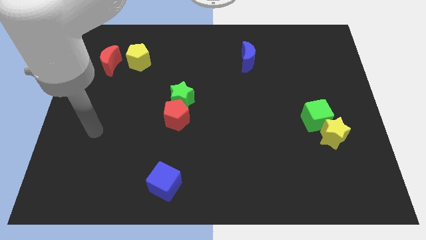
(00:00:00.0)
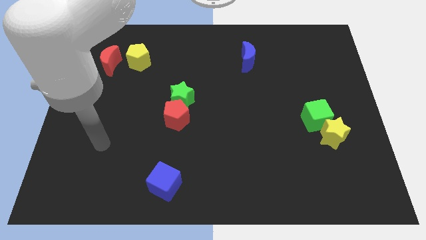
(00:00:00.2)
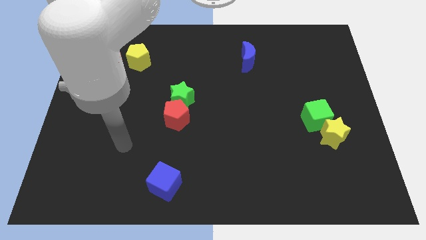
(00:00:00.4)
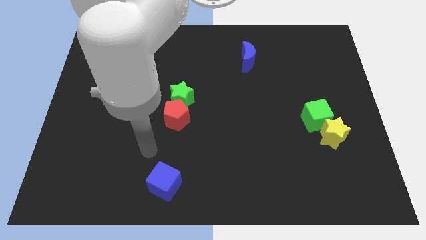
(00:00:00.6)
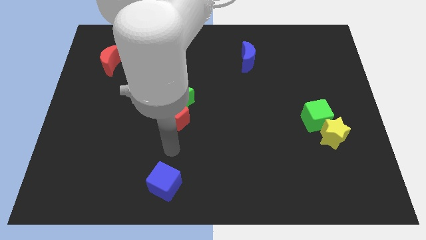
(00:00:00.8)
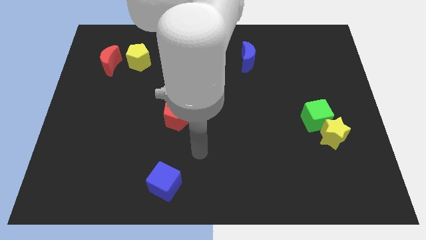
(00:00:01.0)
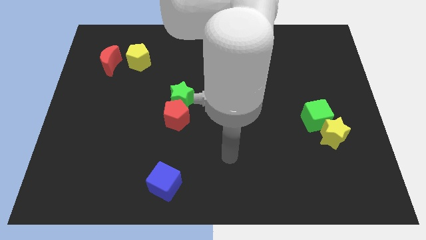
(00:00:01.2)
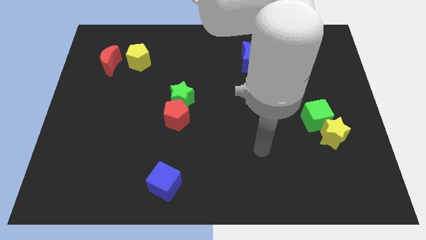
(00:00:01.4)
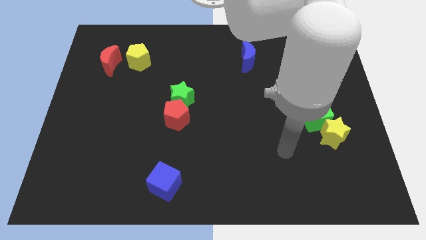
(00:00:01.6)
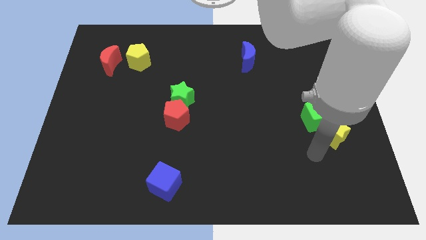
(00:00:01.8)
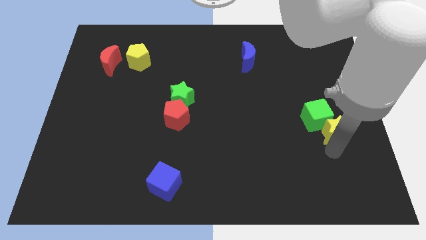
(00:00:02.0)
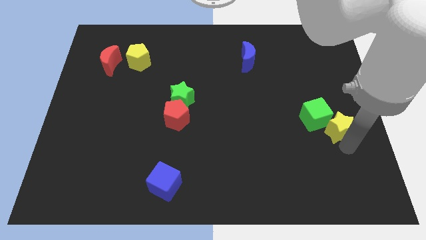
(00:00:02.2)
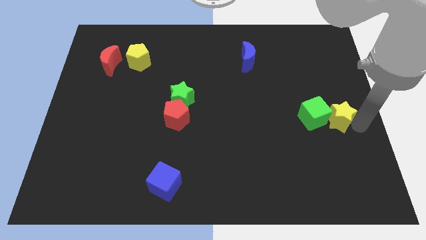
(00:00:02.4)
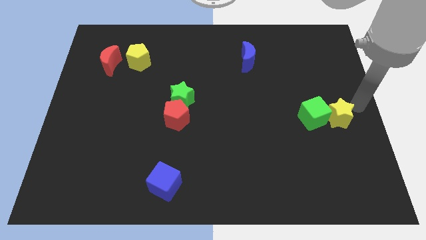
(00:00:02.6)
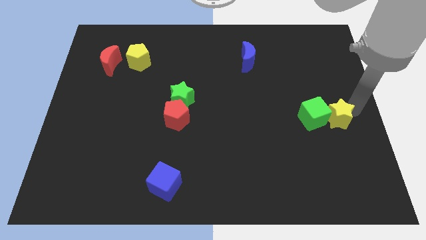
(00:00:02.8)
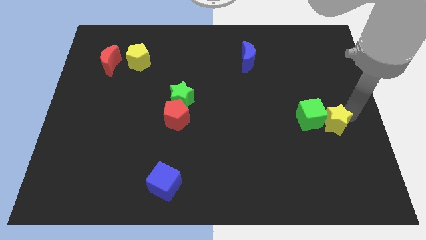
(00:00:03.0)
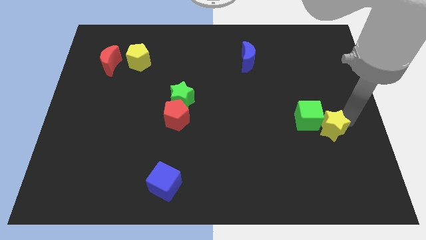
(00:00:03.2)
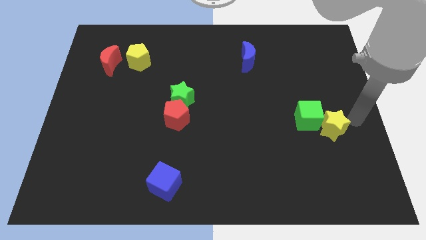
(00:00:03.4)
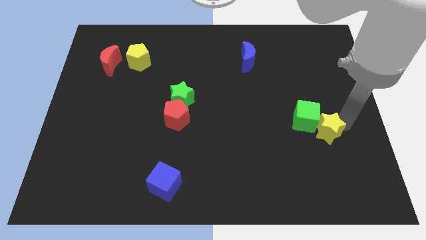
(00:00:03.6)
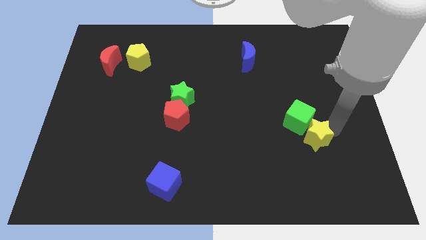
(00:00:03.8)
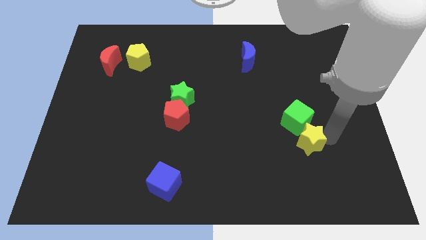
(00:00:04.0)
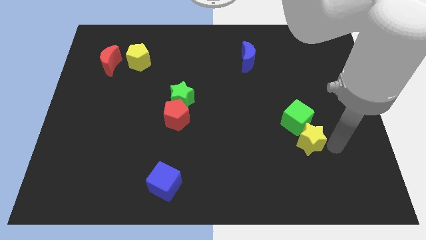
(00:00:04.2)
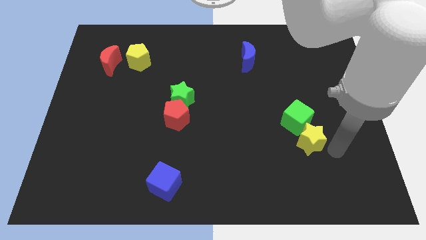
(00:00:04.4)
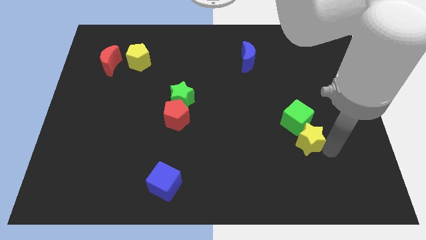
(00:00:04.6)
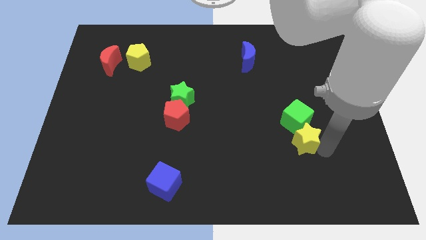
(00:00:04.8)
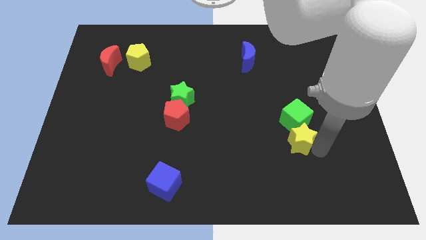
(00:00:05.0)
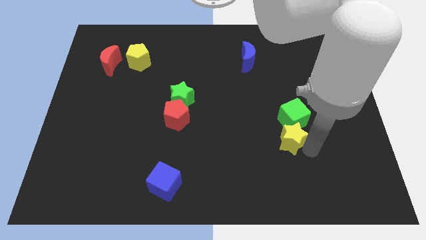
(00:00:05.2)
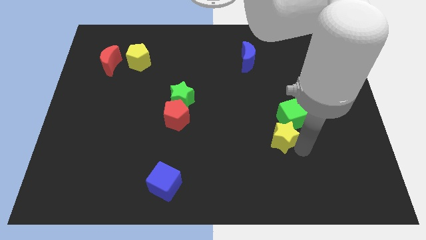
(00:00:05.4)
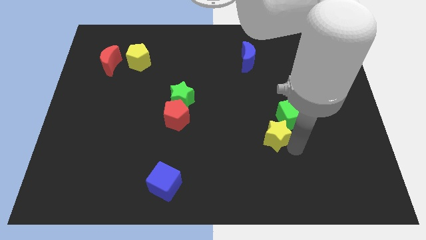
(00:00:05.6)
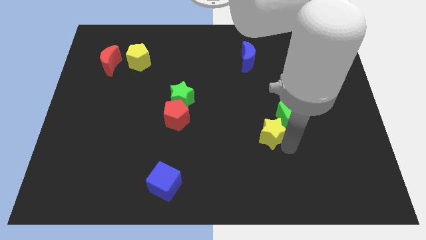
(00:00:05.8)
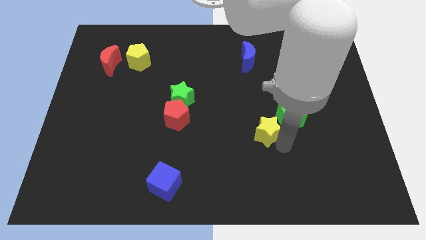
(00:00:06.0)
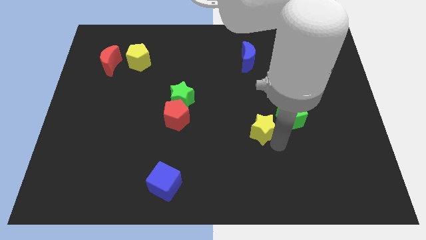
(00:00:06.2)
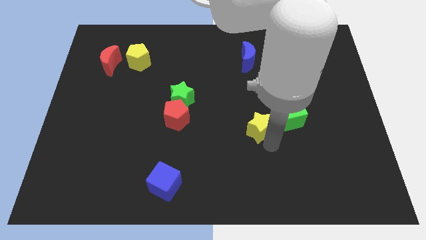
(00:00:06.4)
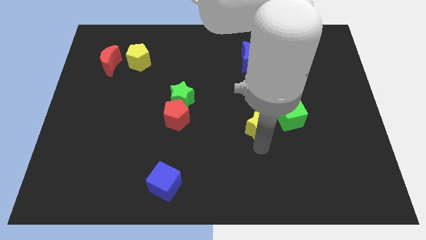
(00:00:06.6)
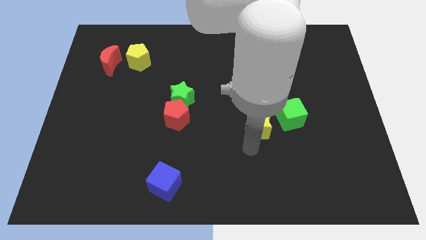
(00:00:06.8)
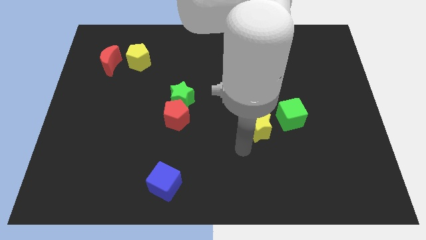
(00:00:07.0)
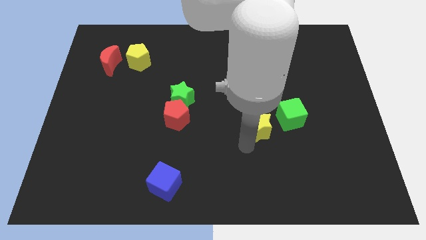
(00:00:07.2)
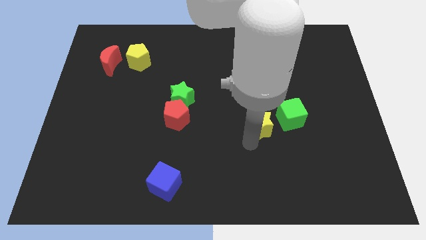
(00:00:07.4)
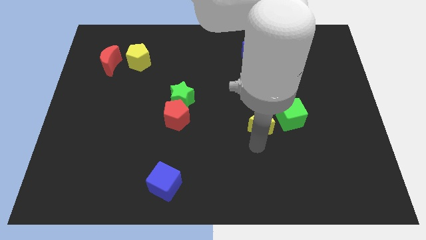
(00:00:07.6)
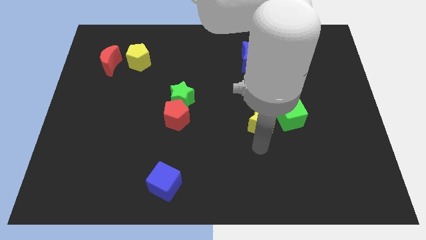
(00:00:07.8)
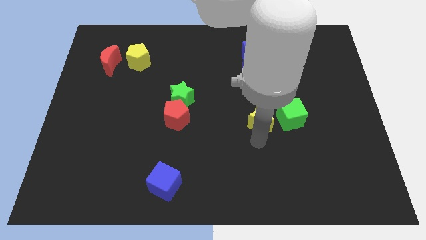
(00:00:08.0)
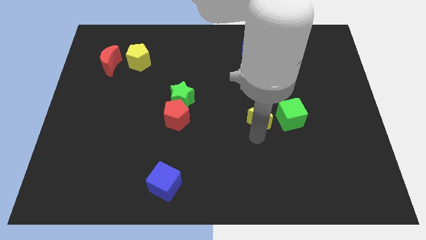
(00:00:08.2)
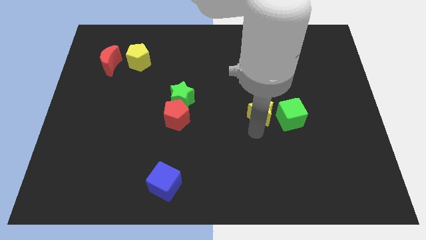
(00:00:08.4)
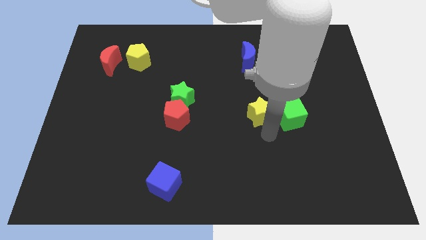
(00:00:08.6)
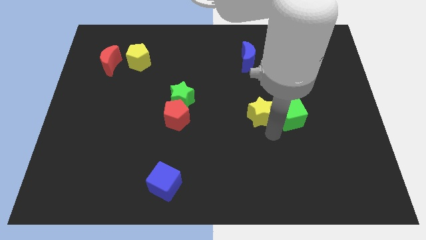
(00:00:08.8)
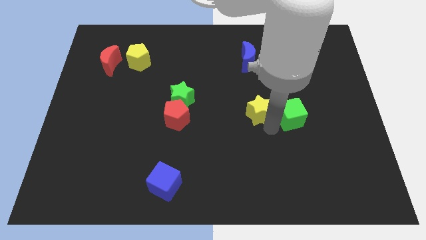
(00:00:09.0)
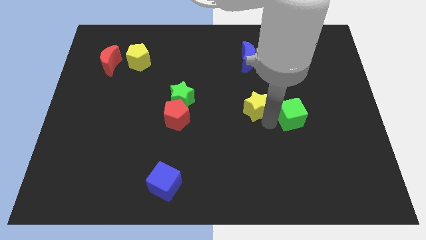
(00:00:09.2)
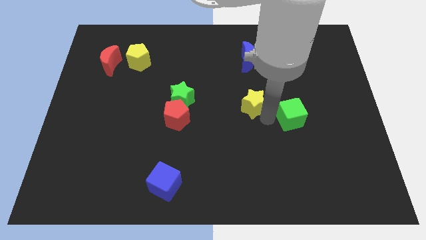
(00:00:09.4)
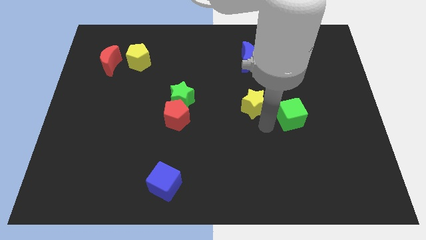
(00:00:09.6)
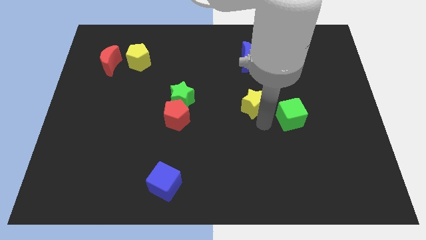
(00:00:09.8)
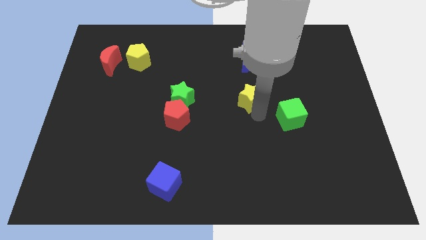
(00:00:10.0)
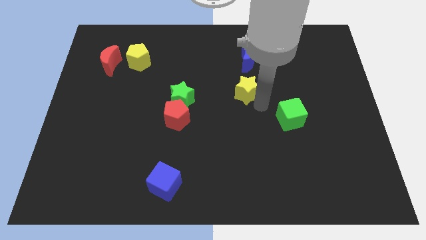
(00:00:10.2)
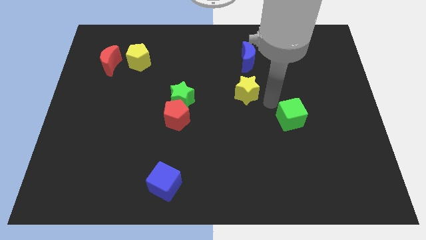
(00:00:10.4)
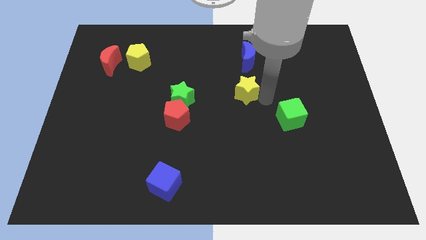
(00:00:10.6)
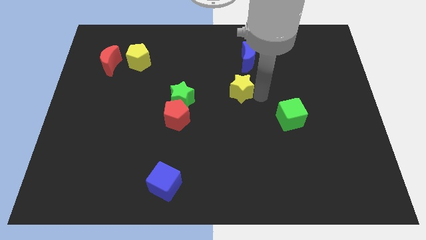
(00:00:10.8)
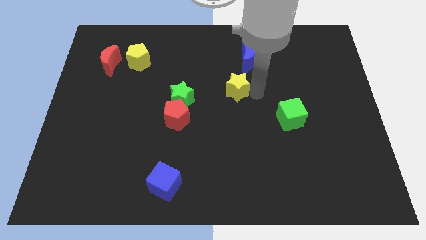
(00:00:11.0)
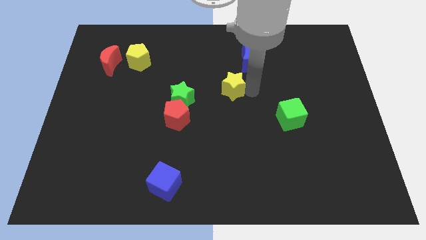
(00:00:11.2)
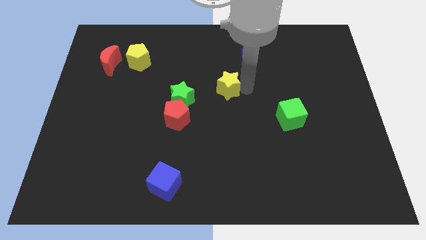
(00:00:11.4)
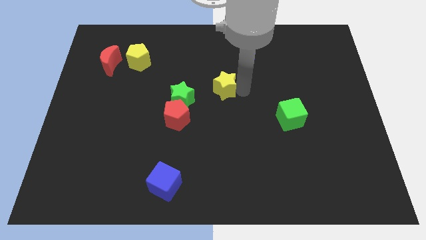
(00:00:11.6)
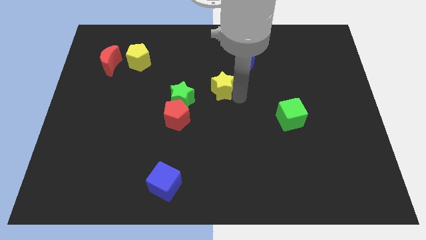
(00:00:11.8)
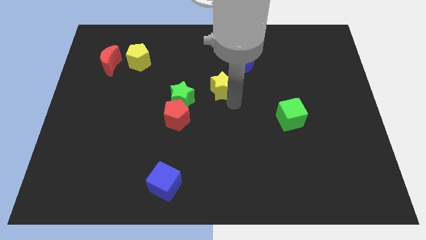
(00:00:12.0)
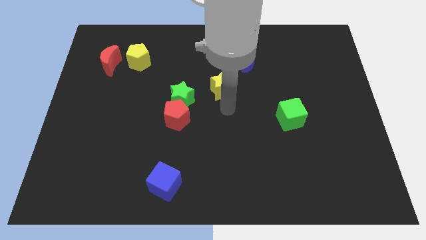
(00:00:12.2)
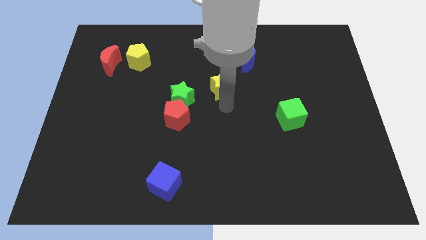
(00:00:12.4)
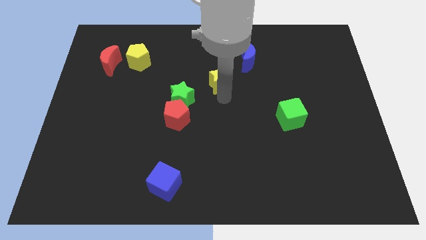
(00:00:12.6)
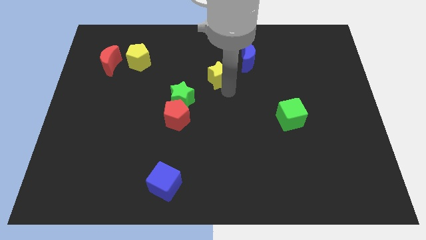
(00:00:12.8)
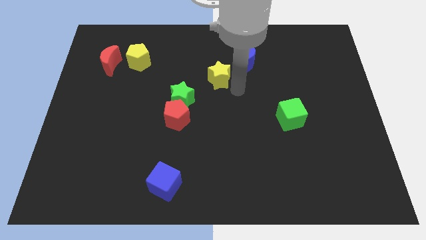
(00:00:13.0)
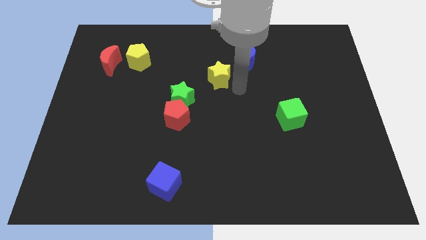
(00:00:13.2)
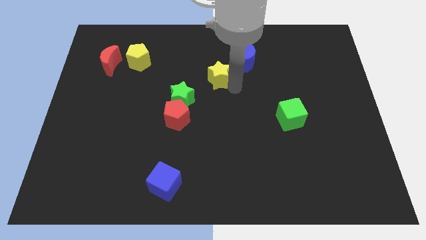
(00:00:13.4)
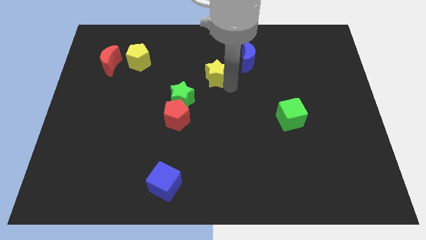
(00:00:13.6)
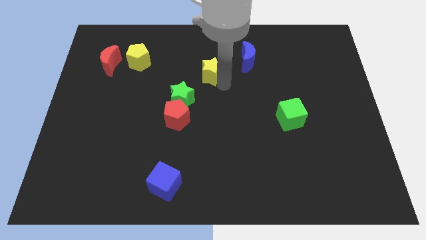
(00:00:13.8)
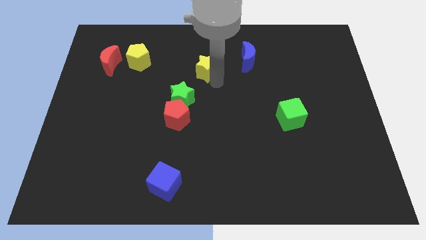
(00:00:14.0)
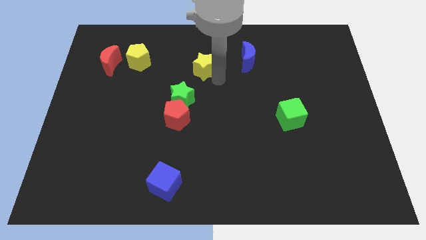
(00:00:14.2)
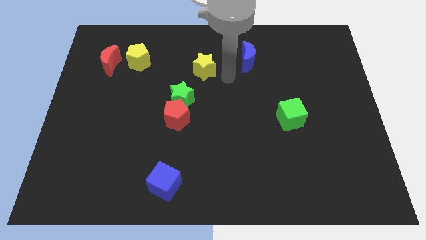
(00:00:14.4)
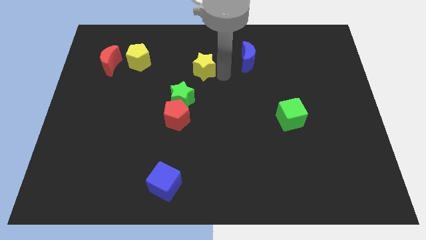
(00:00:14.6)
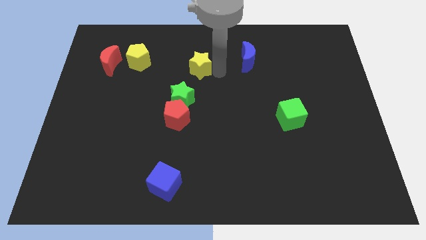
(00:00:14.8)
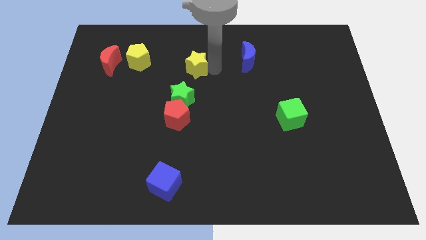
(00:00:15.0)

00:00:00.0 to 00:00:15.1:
slide the yellow star to the right side of the yellow pentagon
